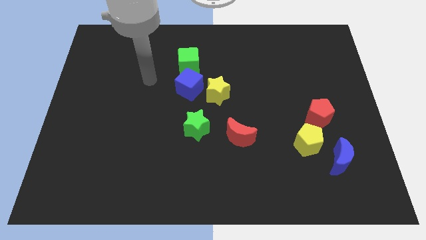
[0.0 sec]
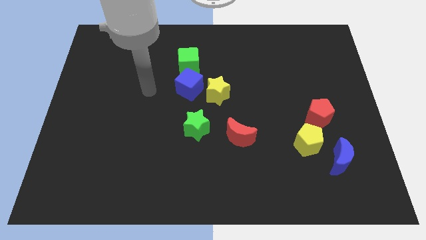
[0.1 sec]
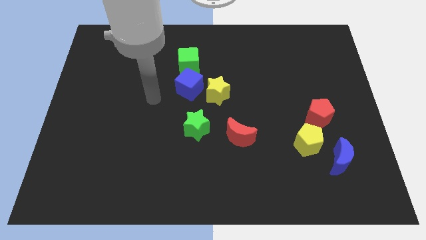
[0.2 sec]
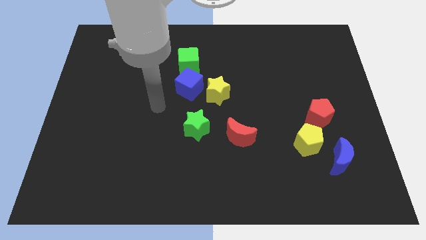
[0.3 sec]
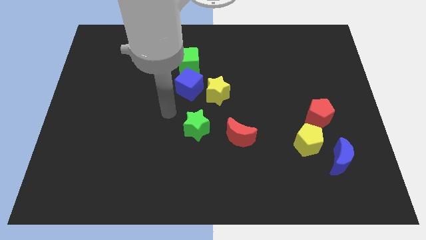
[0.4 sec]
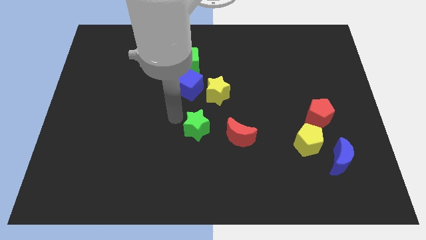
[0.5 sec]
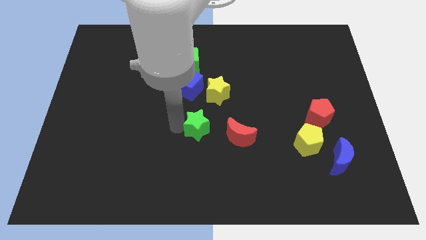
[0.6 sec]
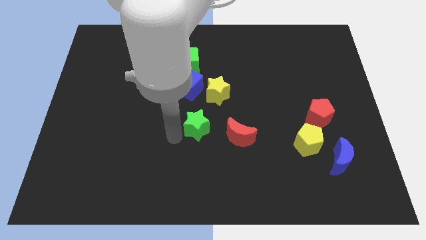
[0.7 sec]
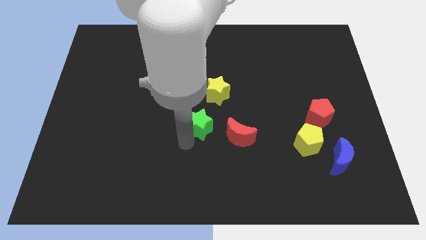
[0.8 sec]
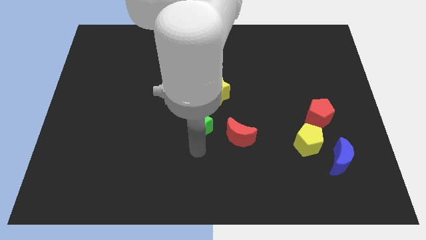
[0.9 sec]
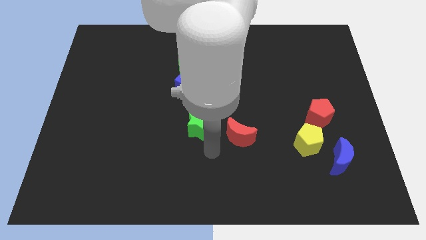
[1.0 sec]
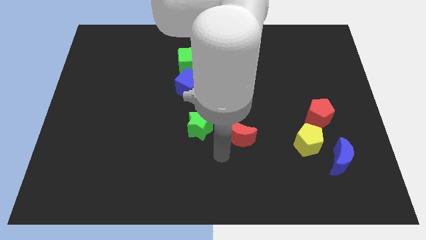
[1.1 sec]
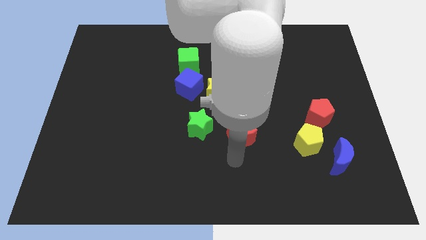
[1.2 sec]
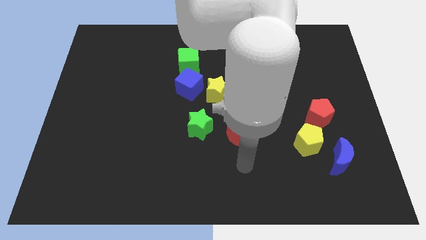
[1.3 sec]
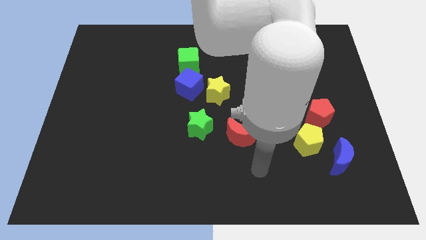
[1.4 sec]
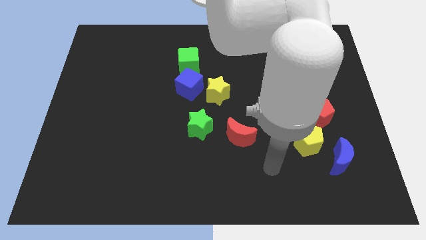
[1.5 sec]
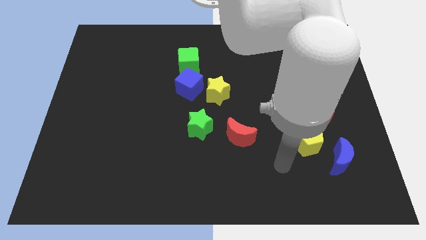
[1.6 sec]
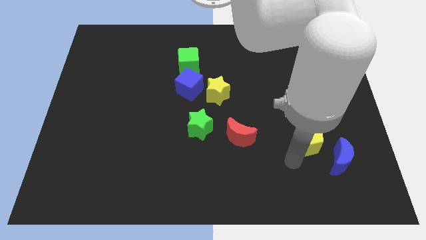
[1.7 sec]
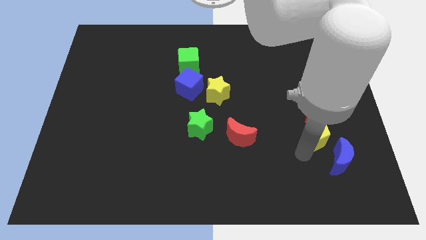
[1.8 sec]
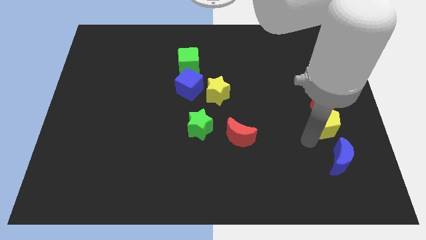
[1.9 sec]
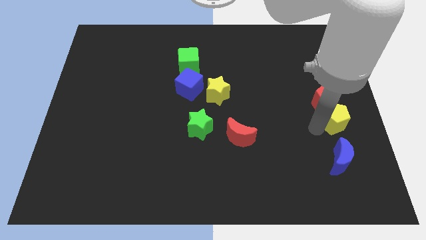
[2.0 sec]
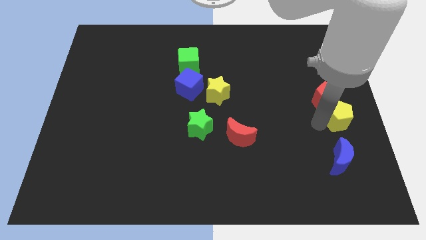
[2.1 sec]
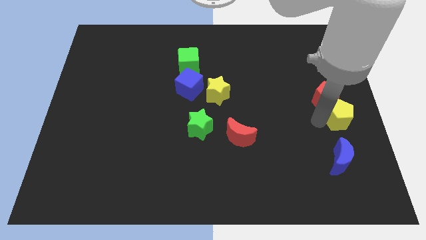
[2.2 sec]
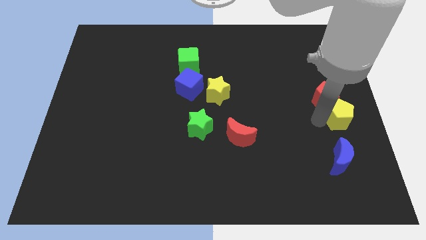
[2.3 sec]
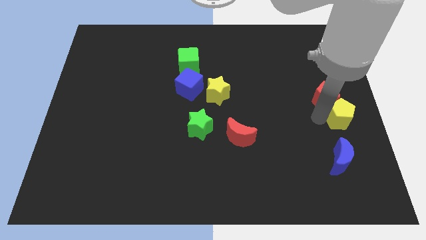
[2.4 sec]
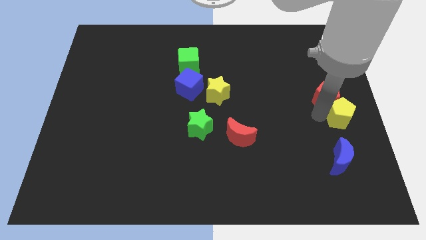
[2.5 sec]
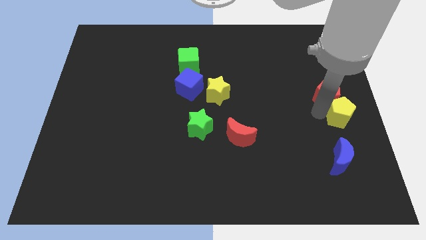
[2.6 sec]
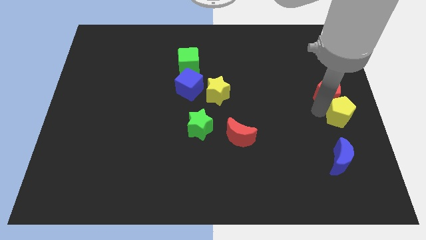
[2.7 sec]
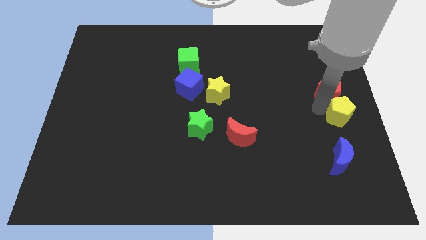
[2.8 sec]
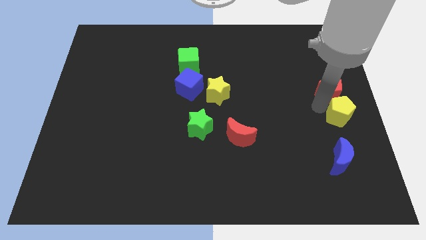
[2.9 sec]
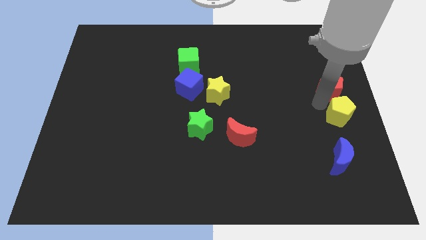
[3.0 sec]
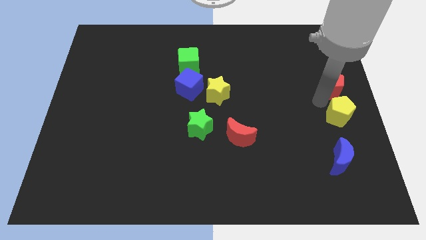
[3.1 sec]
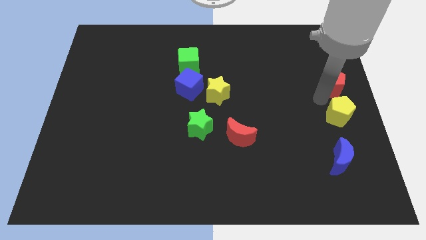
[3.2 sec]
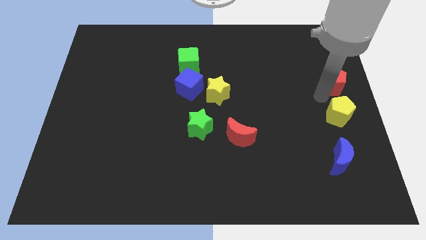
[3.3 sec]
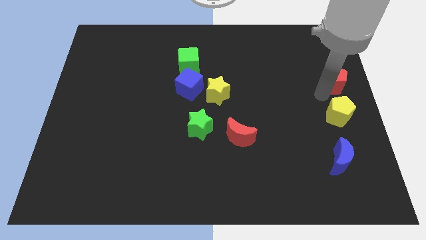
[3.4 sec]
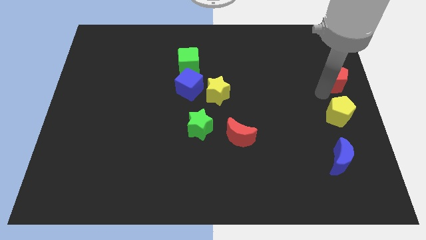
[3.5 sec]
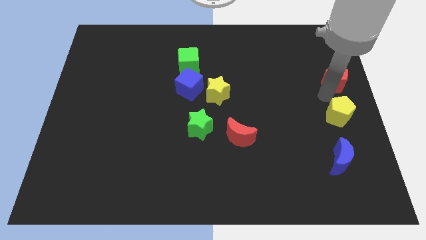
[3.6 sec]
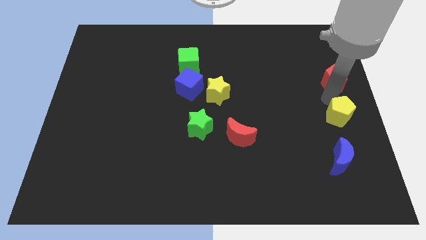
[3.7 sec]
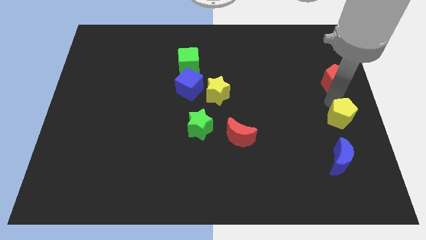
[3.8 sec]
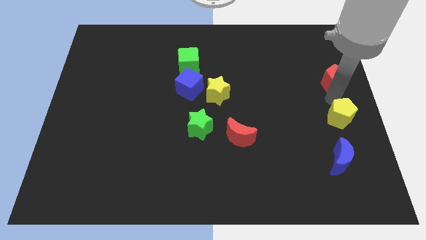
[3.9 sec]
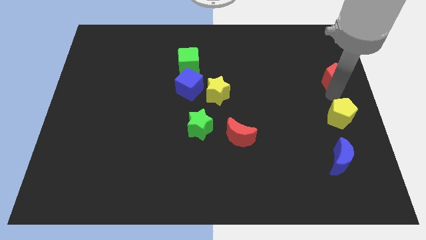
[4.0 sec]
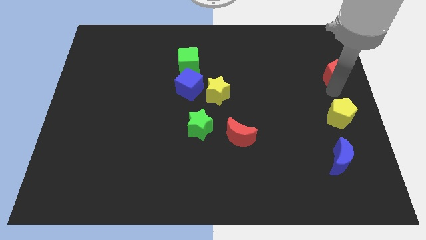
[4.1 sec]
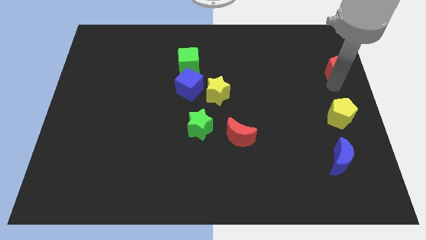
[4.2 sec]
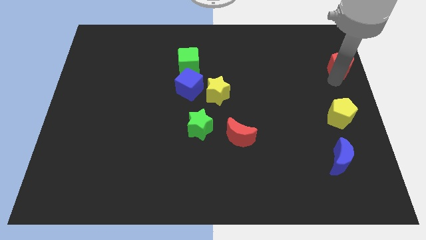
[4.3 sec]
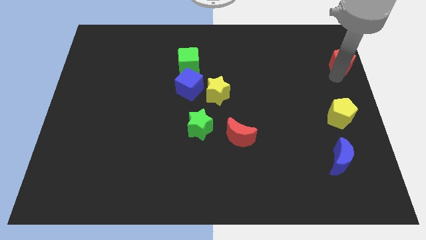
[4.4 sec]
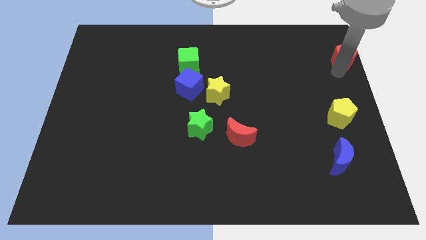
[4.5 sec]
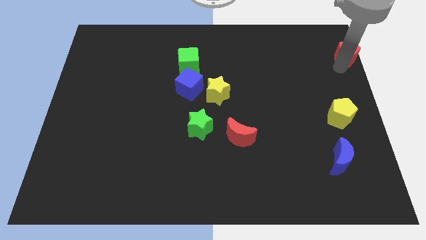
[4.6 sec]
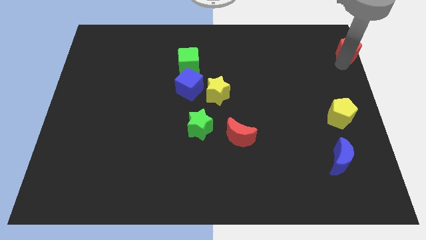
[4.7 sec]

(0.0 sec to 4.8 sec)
push the red pentagon to the top right

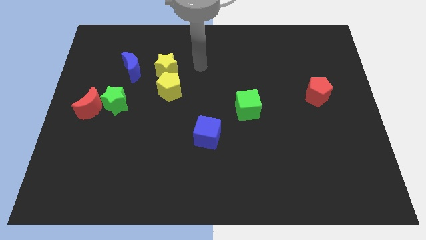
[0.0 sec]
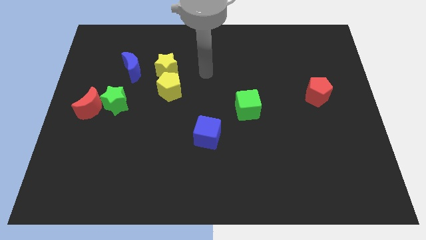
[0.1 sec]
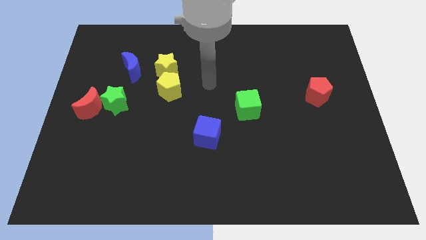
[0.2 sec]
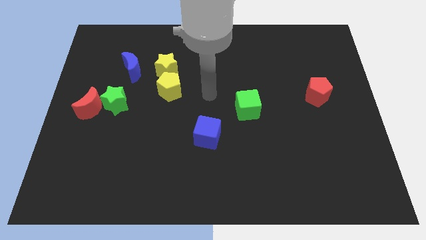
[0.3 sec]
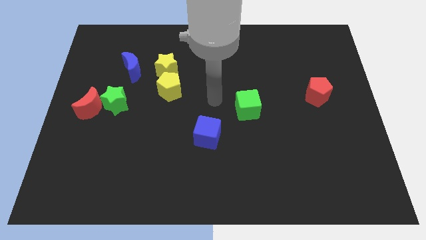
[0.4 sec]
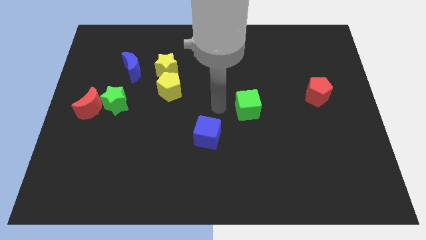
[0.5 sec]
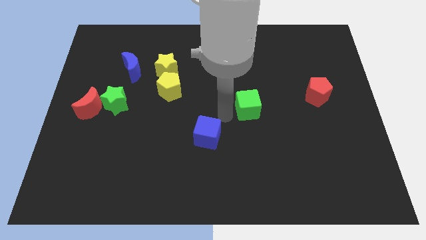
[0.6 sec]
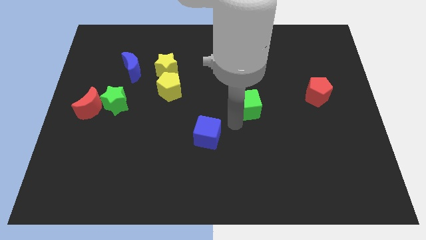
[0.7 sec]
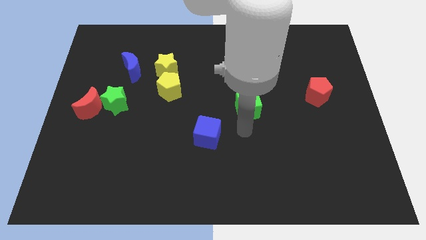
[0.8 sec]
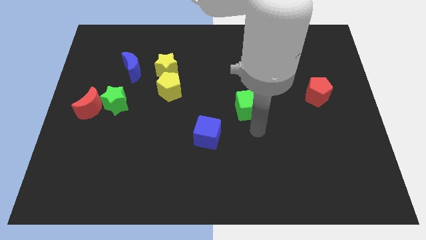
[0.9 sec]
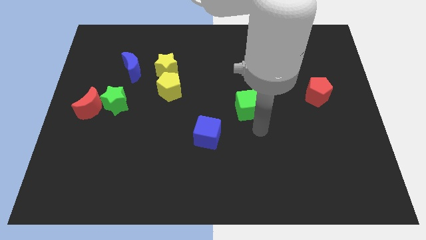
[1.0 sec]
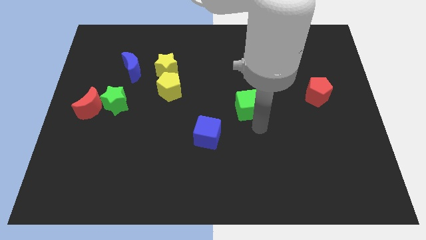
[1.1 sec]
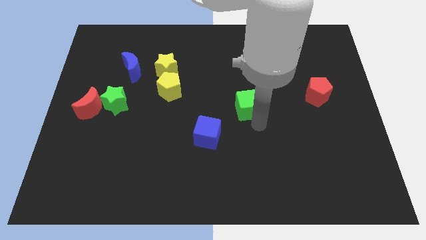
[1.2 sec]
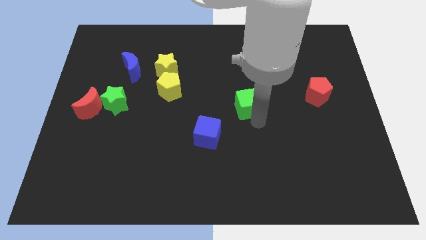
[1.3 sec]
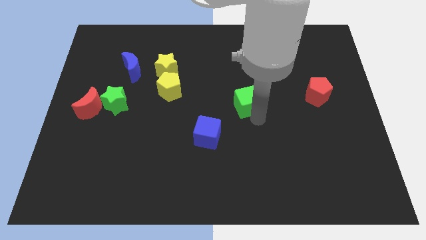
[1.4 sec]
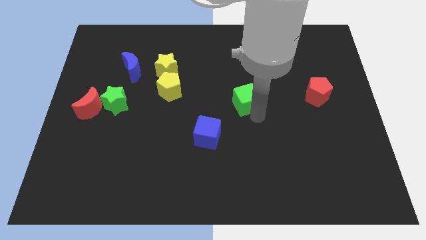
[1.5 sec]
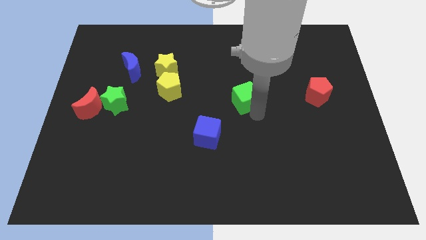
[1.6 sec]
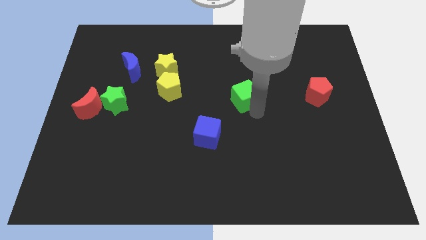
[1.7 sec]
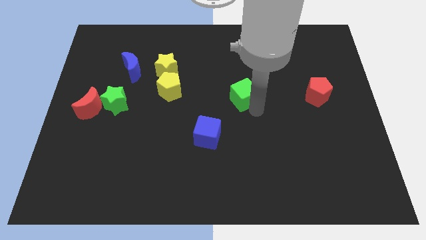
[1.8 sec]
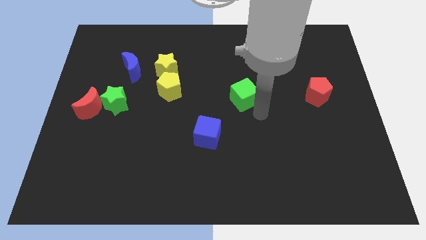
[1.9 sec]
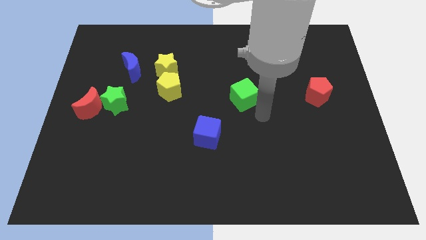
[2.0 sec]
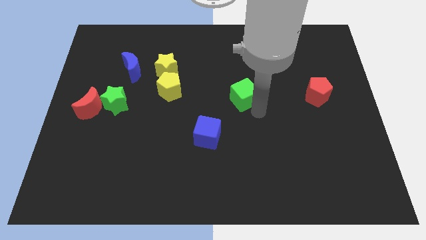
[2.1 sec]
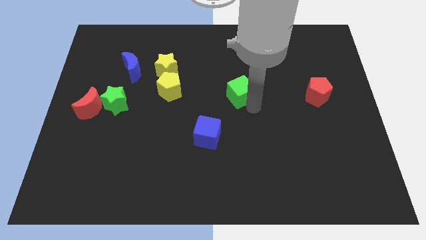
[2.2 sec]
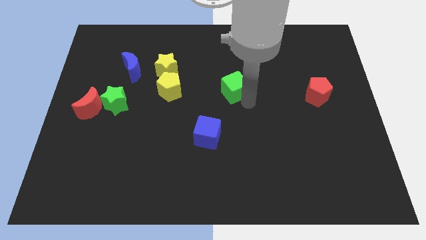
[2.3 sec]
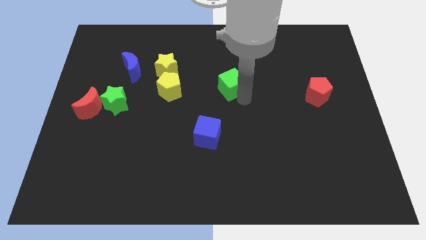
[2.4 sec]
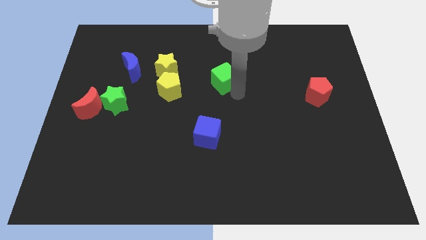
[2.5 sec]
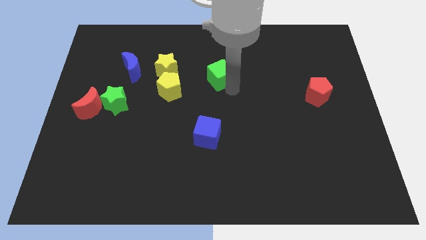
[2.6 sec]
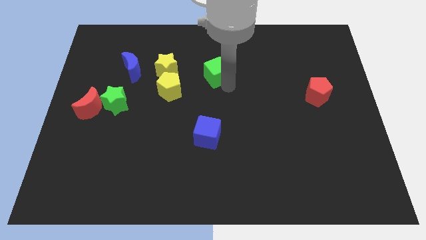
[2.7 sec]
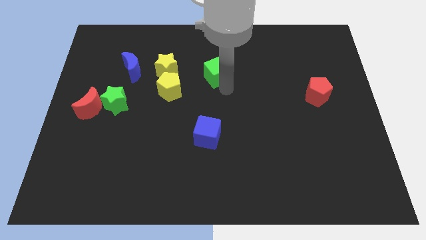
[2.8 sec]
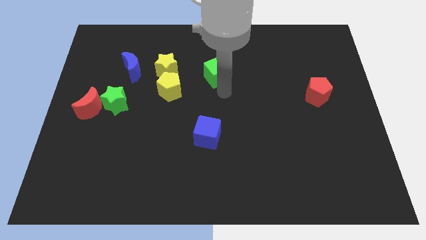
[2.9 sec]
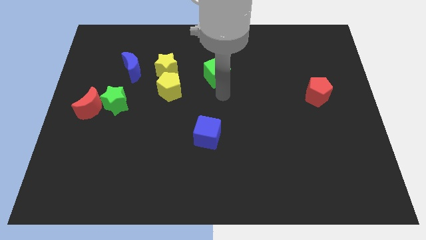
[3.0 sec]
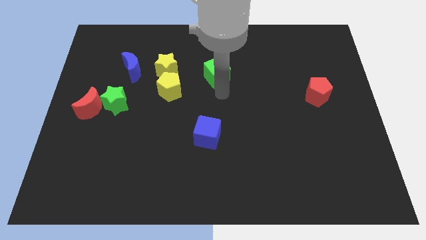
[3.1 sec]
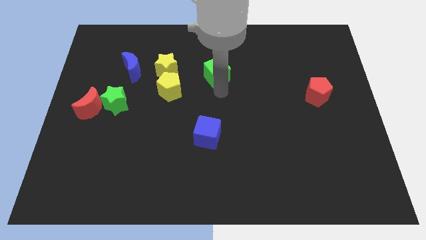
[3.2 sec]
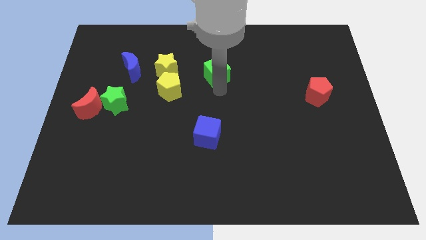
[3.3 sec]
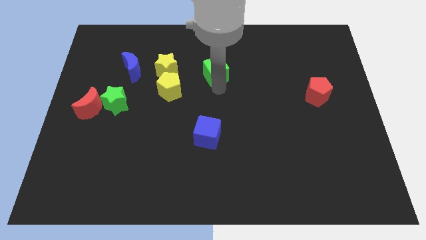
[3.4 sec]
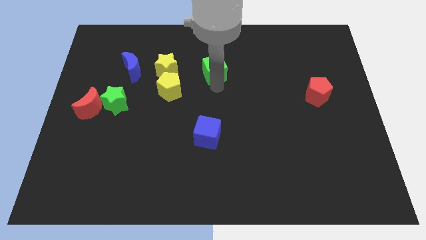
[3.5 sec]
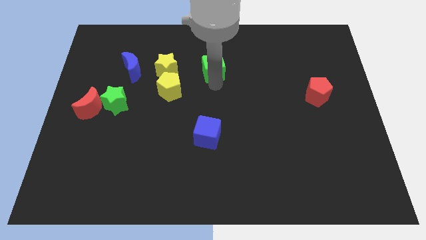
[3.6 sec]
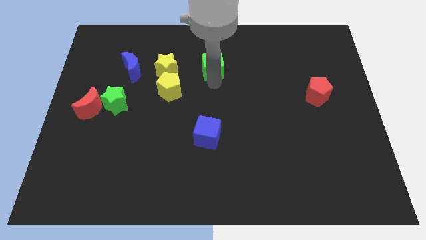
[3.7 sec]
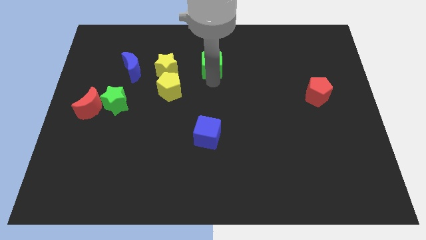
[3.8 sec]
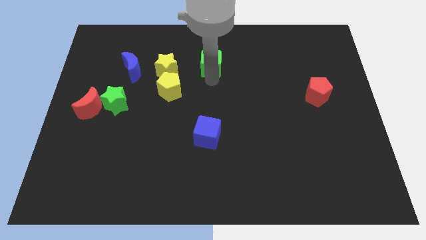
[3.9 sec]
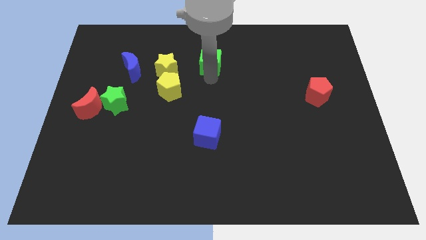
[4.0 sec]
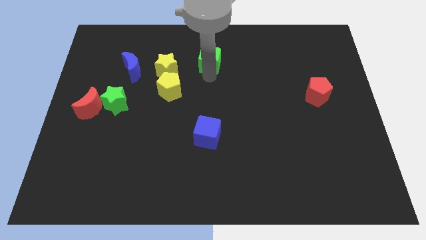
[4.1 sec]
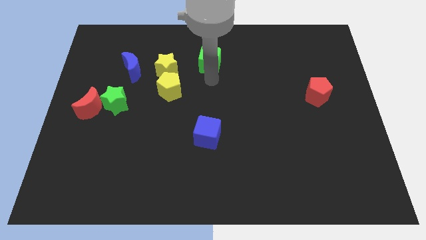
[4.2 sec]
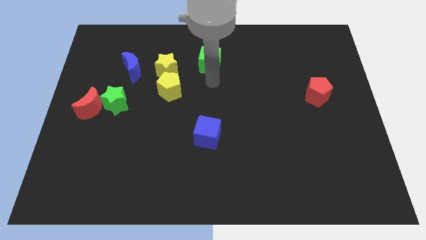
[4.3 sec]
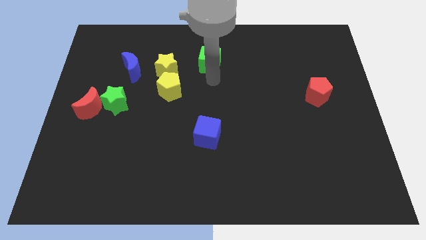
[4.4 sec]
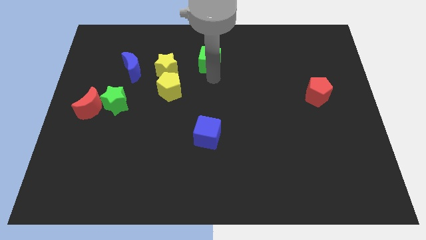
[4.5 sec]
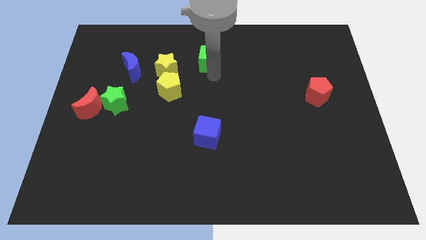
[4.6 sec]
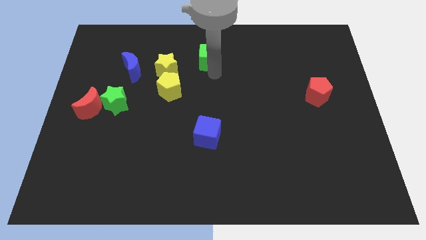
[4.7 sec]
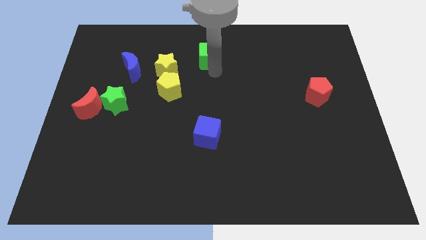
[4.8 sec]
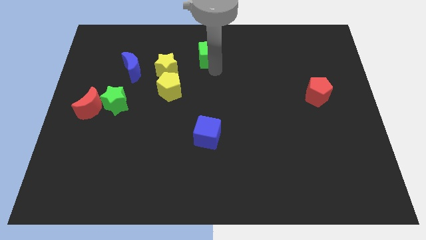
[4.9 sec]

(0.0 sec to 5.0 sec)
slide the green cube to the towards your base
